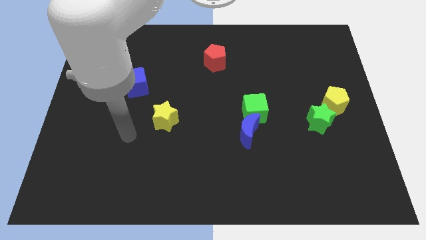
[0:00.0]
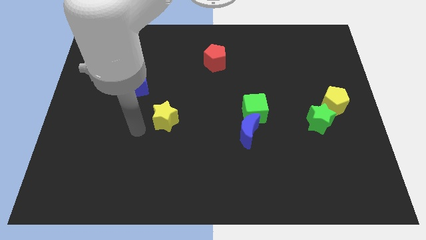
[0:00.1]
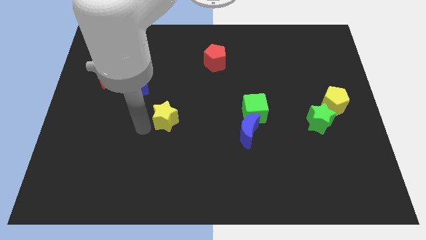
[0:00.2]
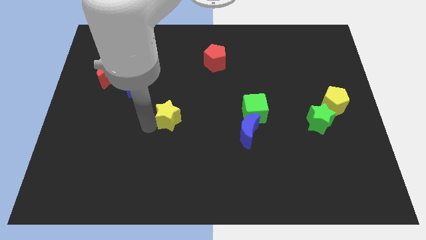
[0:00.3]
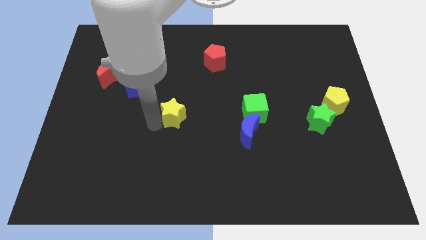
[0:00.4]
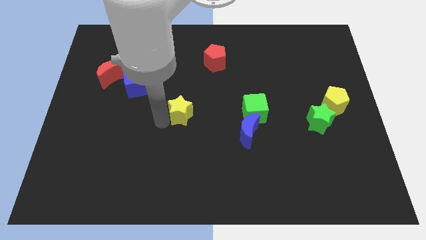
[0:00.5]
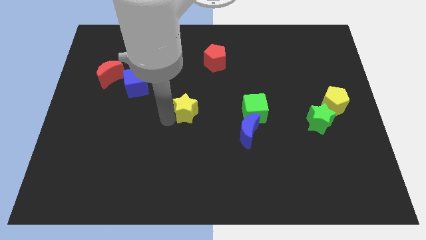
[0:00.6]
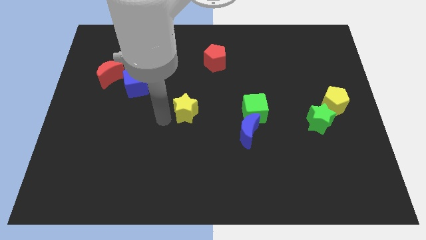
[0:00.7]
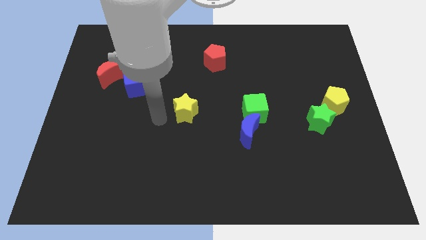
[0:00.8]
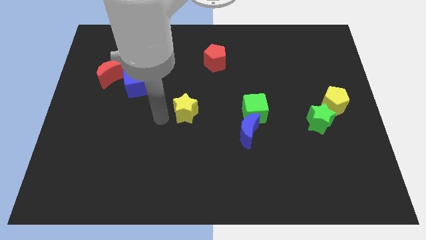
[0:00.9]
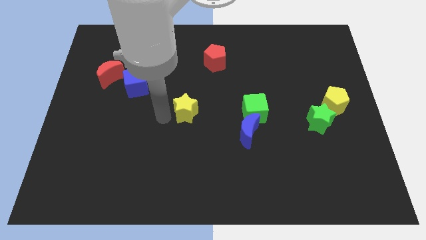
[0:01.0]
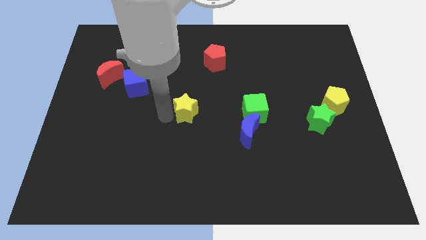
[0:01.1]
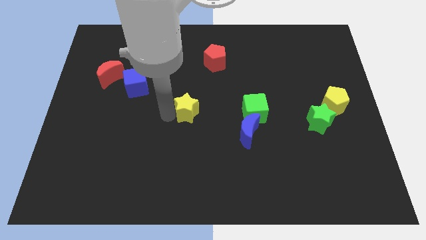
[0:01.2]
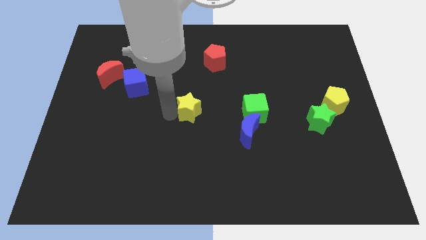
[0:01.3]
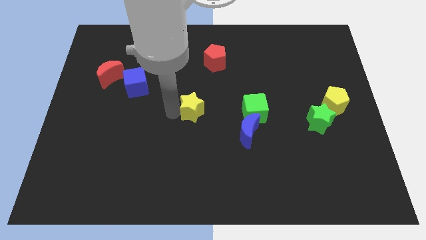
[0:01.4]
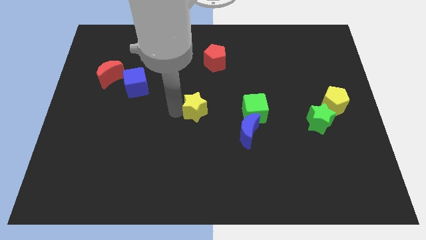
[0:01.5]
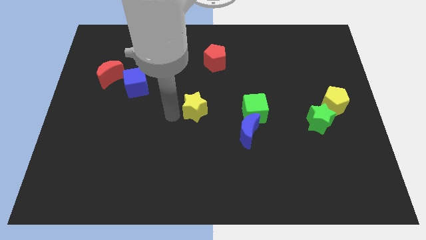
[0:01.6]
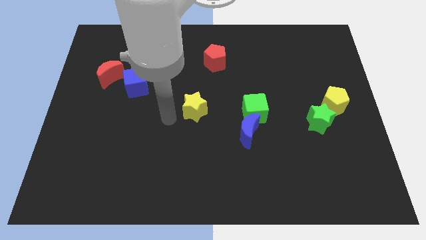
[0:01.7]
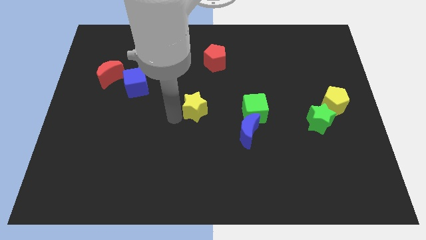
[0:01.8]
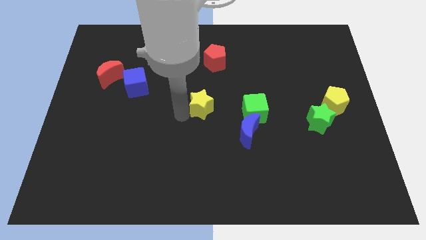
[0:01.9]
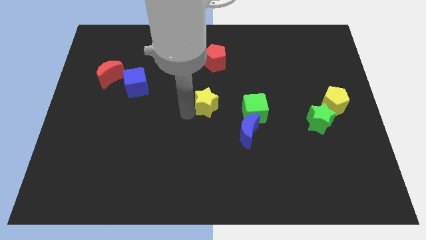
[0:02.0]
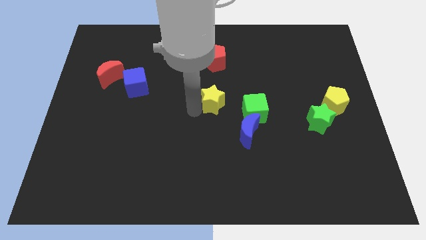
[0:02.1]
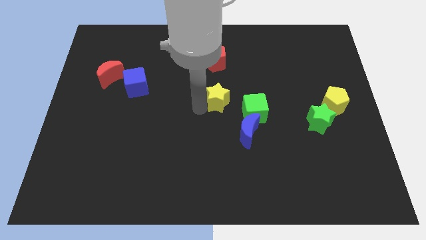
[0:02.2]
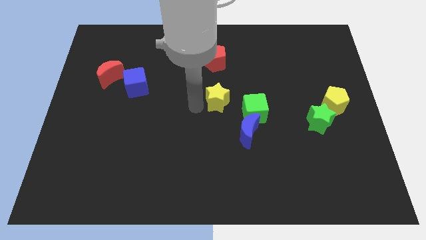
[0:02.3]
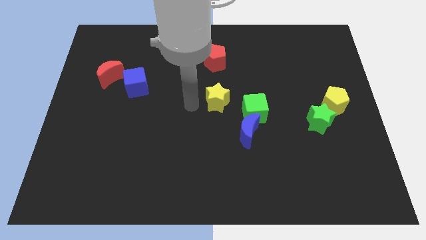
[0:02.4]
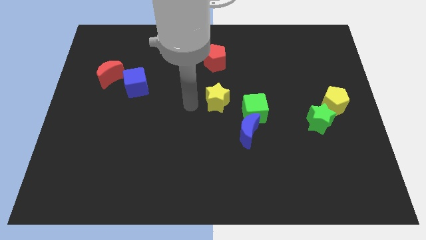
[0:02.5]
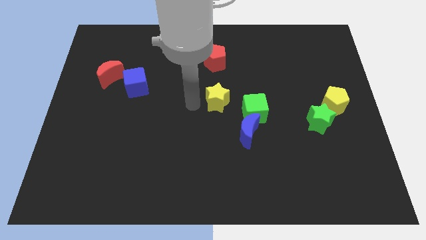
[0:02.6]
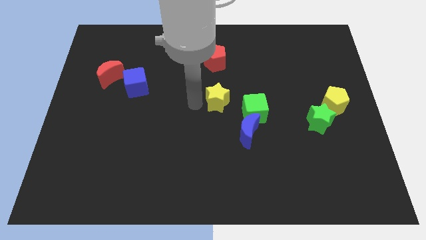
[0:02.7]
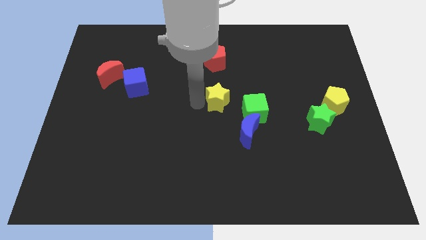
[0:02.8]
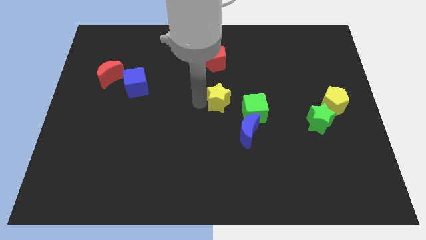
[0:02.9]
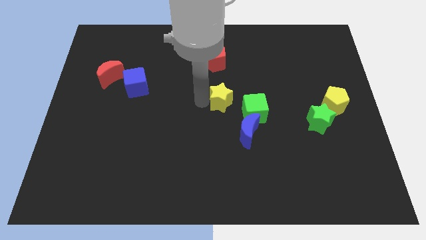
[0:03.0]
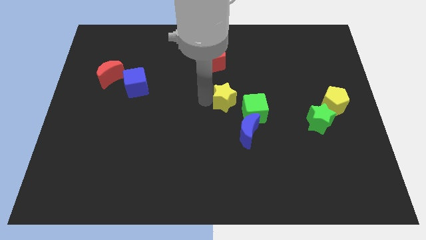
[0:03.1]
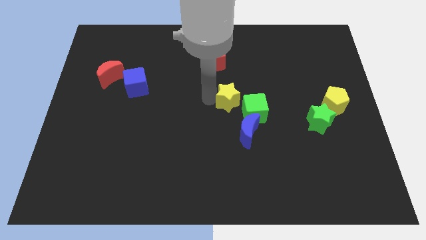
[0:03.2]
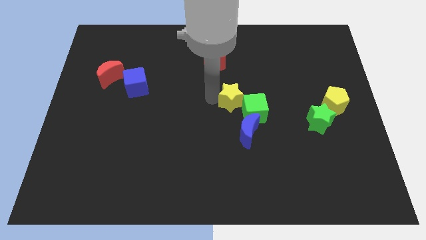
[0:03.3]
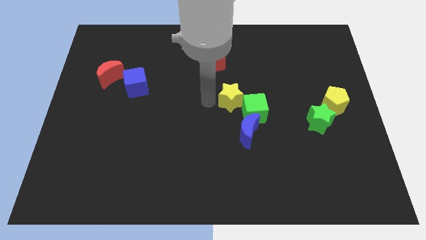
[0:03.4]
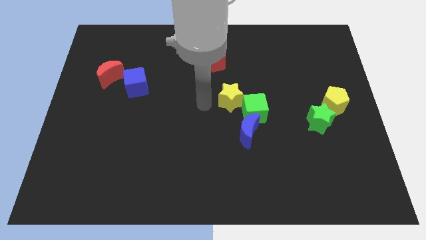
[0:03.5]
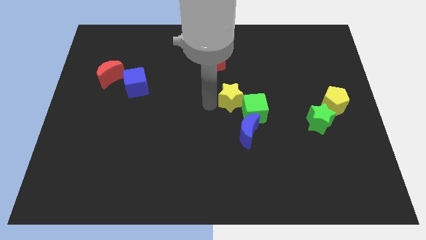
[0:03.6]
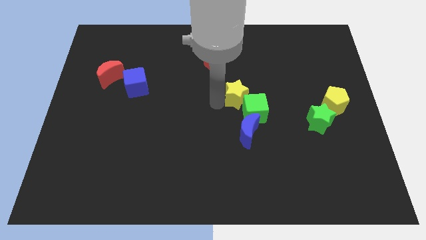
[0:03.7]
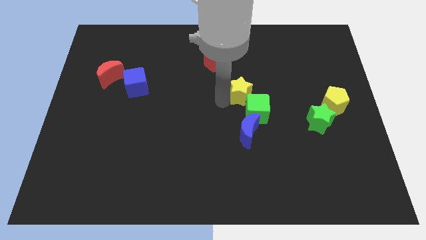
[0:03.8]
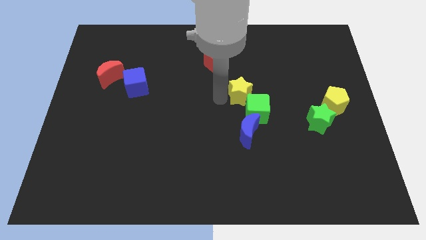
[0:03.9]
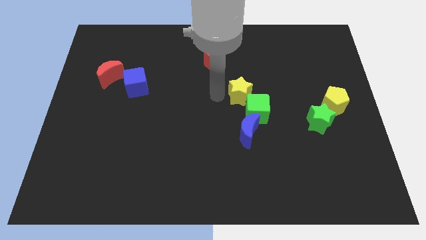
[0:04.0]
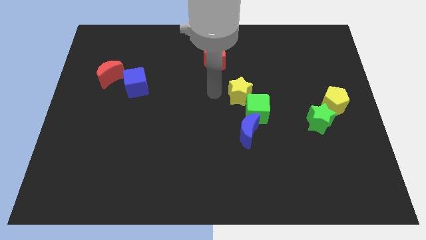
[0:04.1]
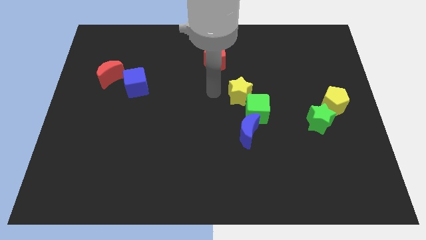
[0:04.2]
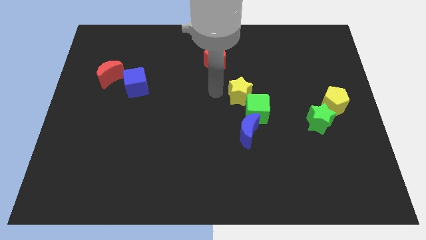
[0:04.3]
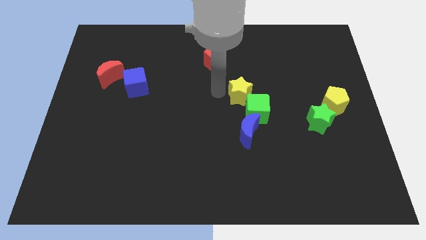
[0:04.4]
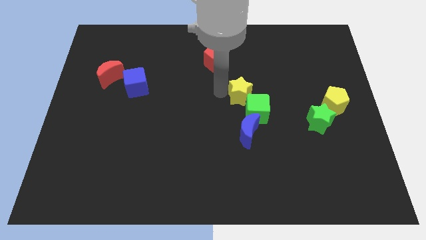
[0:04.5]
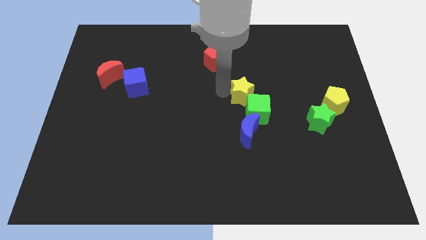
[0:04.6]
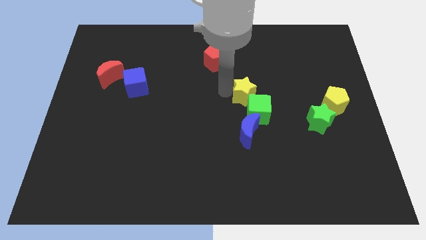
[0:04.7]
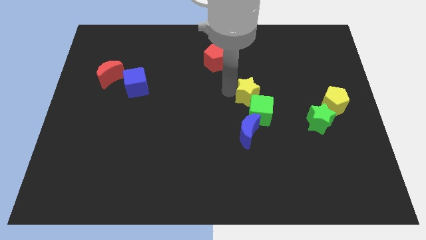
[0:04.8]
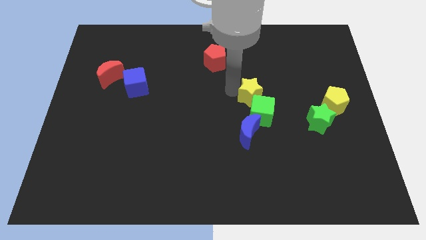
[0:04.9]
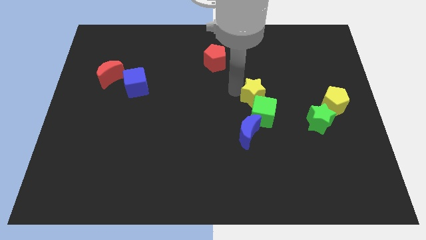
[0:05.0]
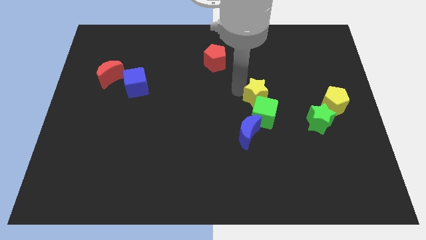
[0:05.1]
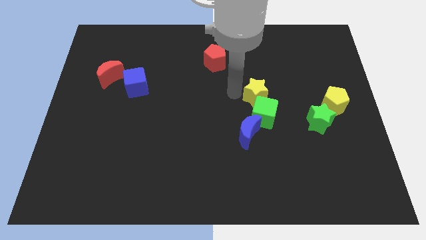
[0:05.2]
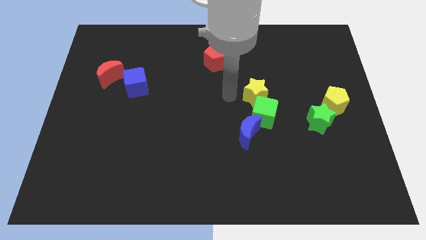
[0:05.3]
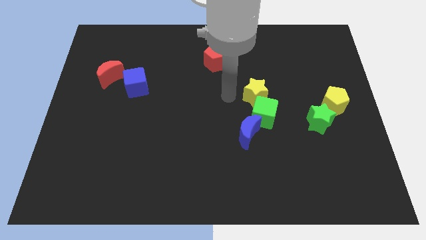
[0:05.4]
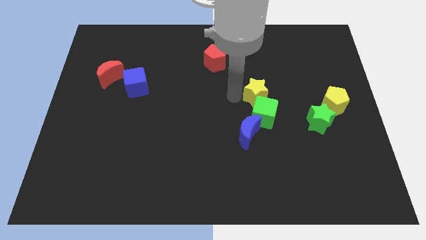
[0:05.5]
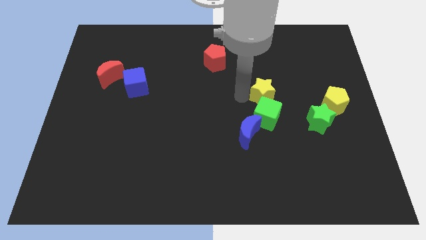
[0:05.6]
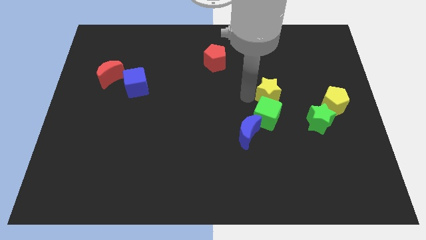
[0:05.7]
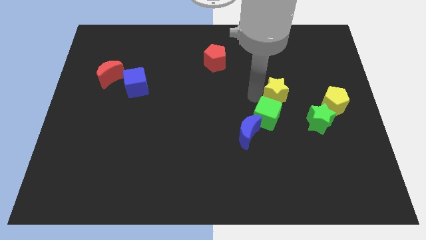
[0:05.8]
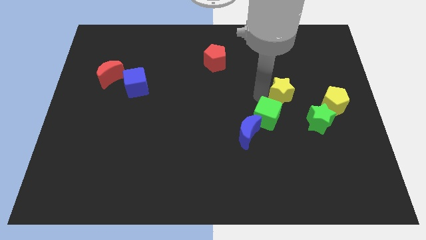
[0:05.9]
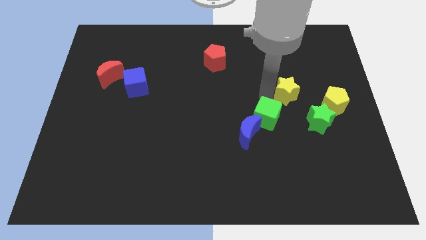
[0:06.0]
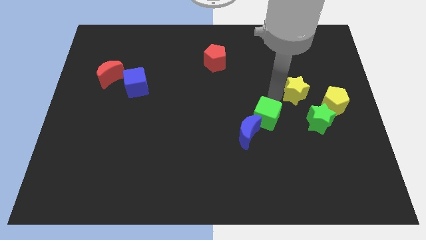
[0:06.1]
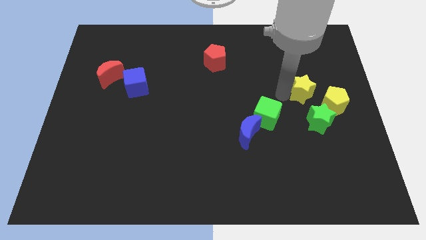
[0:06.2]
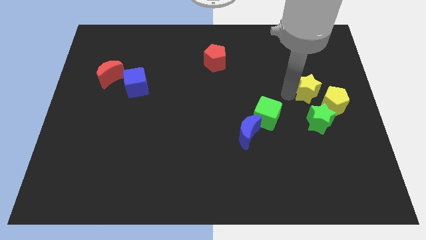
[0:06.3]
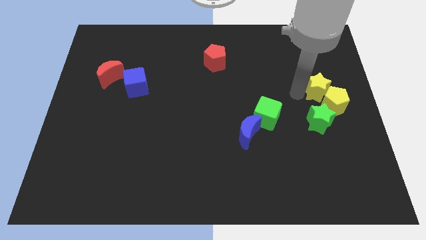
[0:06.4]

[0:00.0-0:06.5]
put the yellow star to the right side
